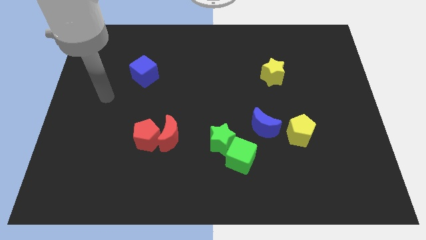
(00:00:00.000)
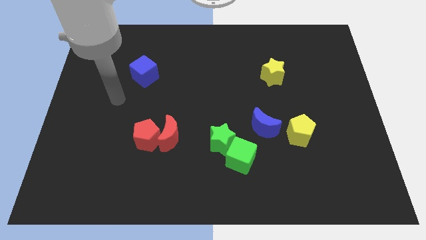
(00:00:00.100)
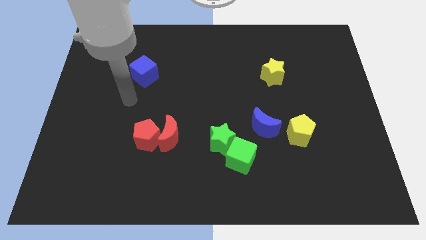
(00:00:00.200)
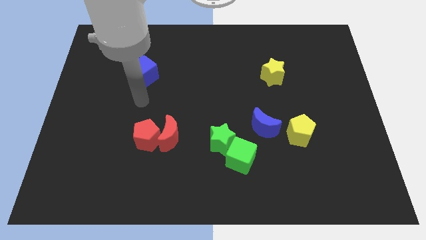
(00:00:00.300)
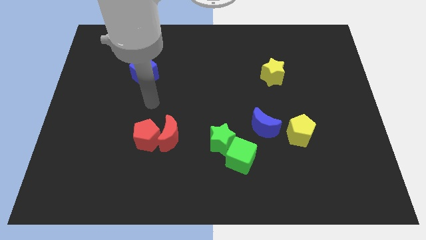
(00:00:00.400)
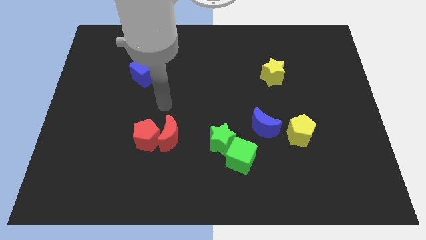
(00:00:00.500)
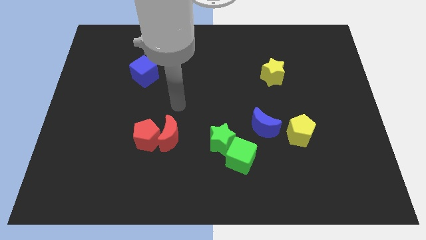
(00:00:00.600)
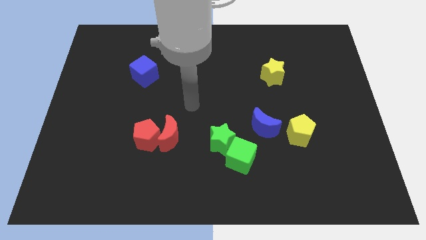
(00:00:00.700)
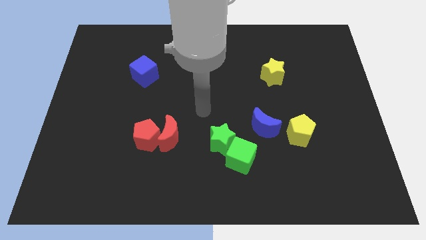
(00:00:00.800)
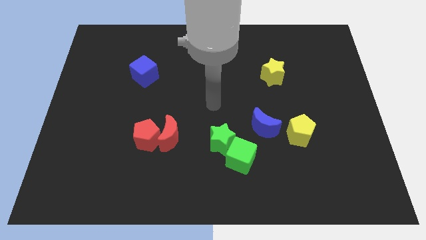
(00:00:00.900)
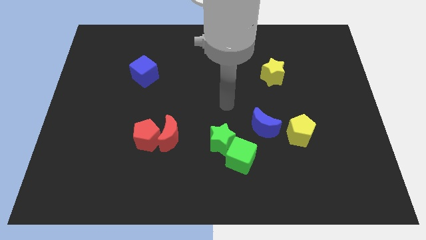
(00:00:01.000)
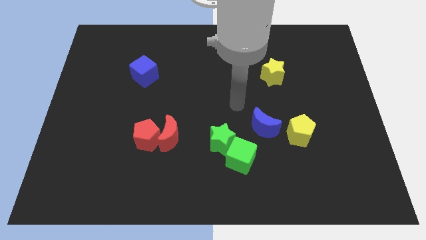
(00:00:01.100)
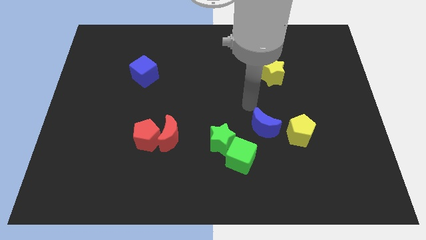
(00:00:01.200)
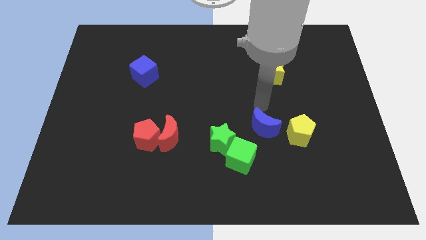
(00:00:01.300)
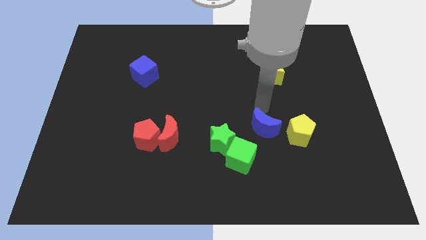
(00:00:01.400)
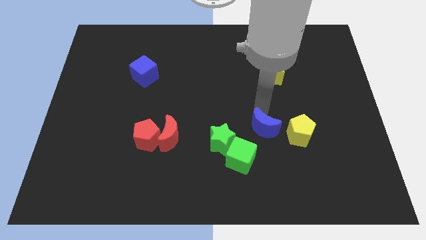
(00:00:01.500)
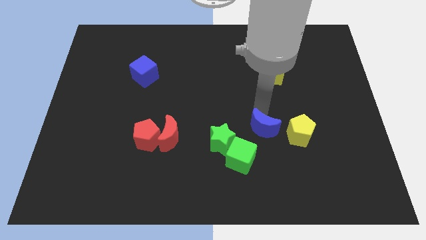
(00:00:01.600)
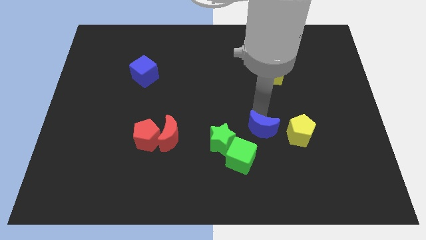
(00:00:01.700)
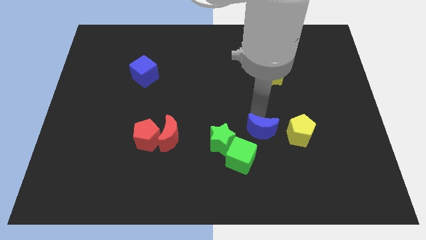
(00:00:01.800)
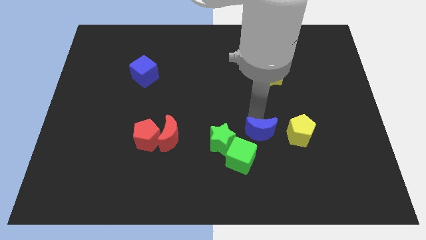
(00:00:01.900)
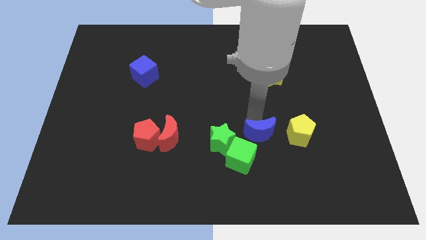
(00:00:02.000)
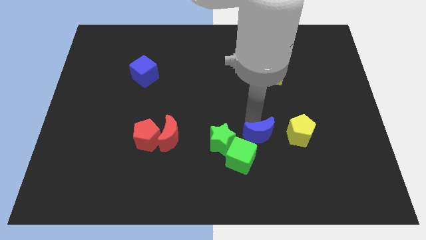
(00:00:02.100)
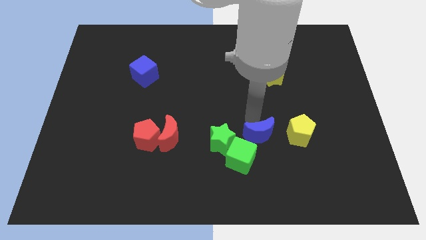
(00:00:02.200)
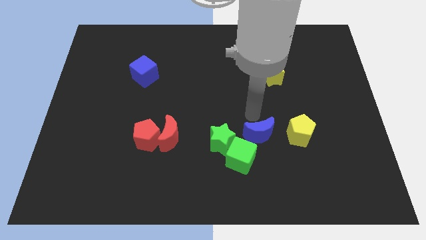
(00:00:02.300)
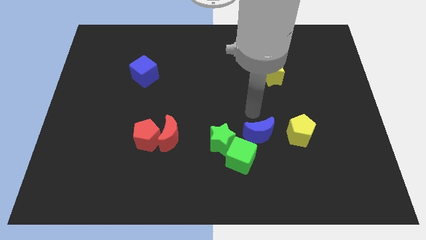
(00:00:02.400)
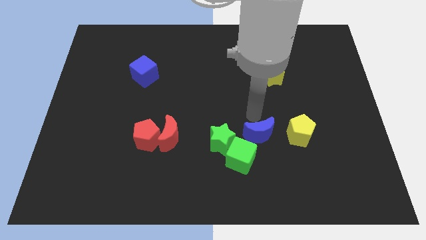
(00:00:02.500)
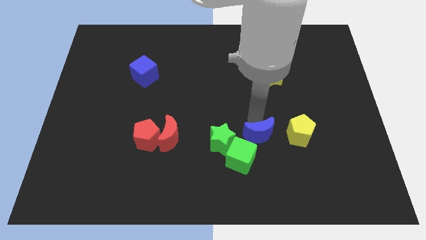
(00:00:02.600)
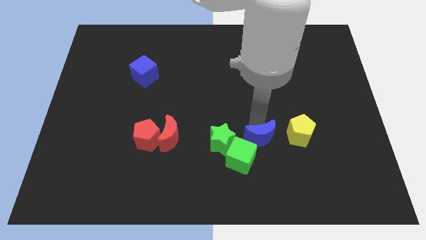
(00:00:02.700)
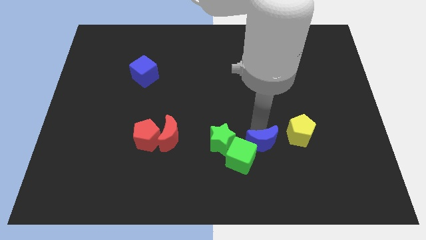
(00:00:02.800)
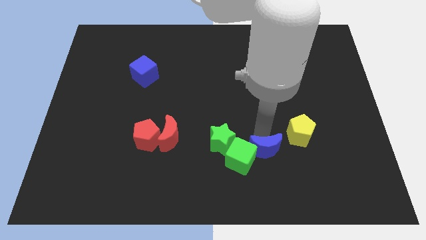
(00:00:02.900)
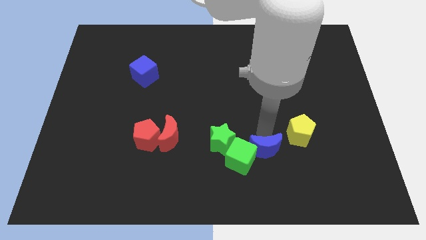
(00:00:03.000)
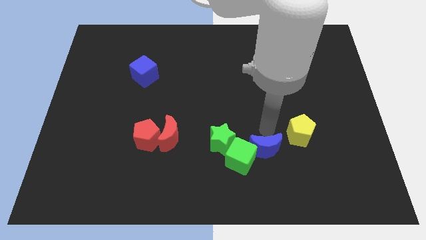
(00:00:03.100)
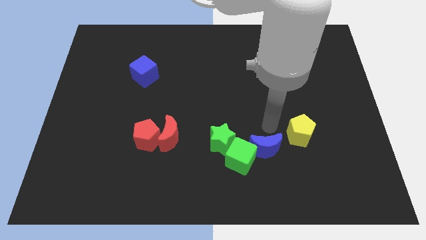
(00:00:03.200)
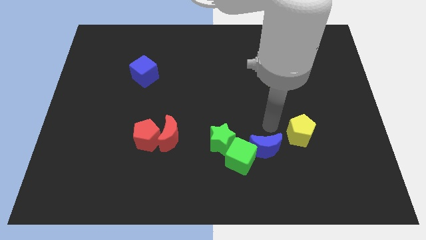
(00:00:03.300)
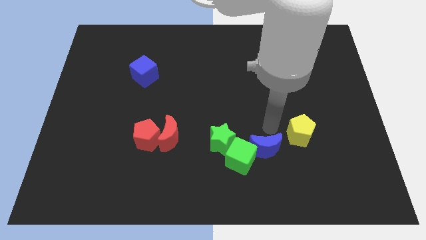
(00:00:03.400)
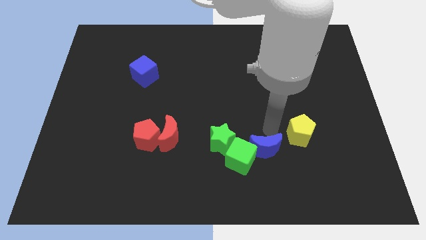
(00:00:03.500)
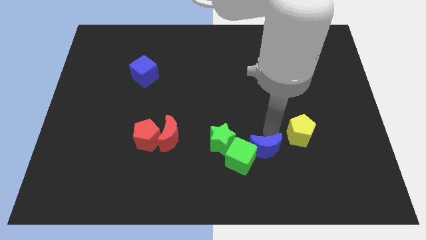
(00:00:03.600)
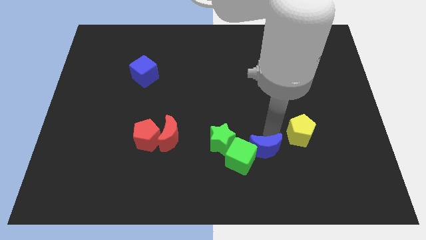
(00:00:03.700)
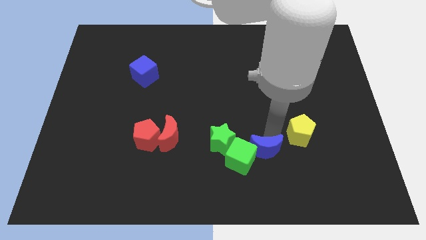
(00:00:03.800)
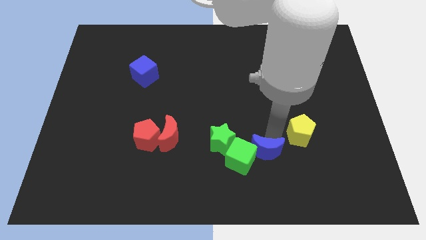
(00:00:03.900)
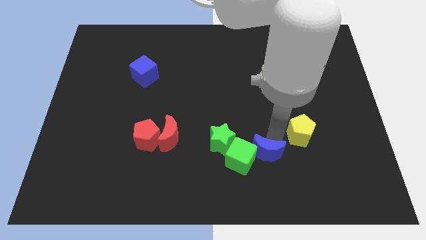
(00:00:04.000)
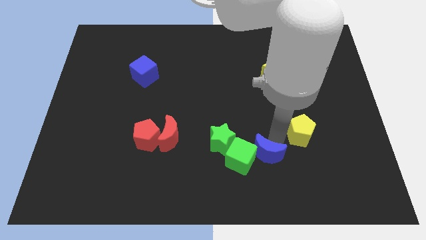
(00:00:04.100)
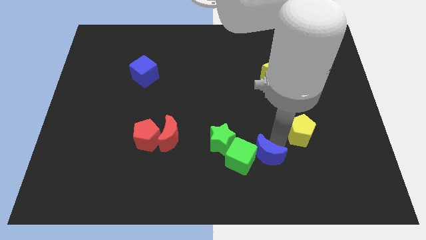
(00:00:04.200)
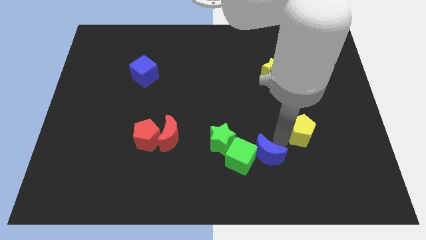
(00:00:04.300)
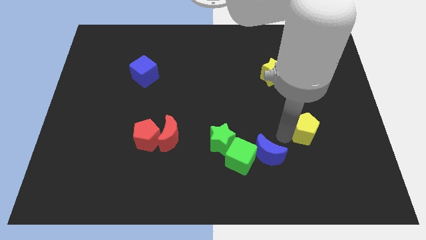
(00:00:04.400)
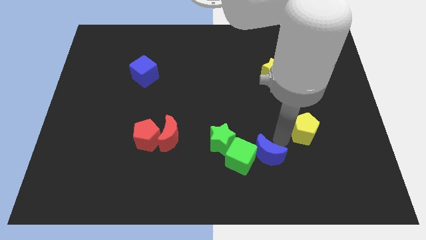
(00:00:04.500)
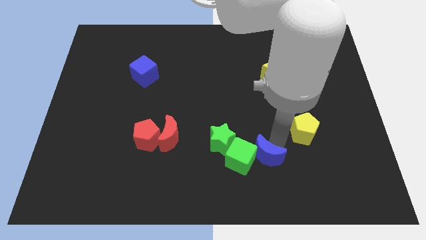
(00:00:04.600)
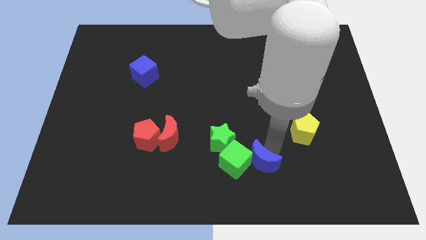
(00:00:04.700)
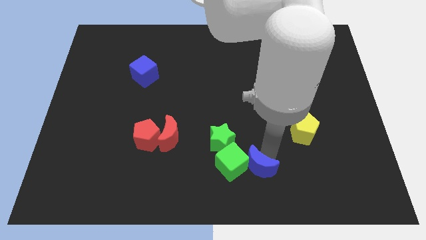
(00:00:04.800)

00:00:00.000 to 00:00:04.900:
slide the blue moon a little bit down and left

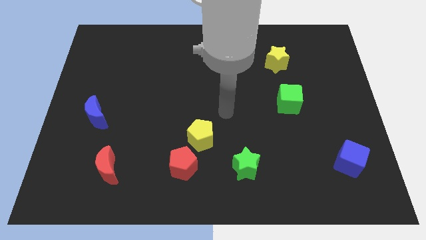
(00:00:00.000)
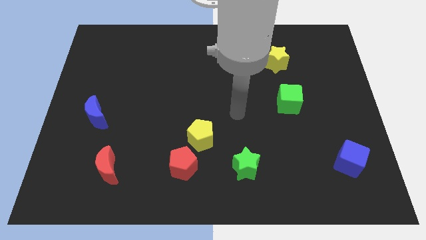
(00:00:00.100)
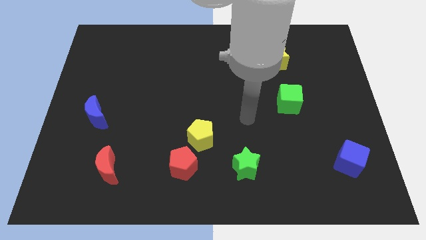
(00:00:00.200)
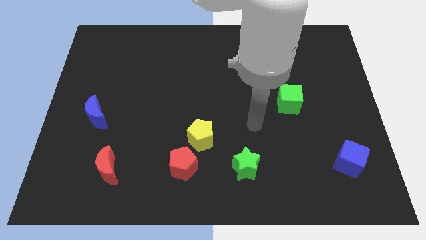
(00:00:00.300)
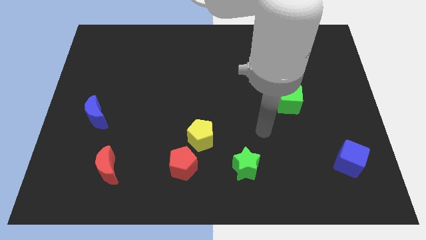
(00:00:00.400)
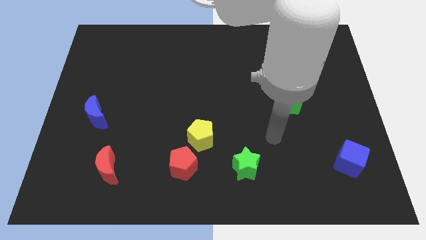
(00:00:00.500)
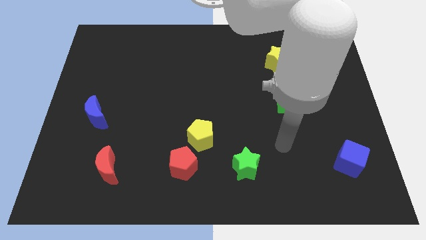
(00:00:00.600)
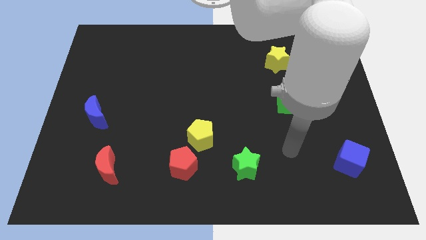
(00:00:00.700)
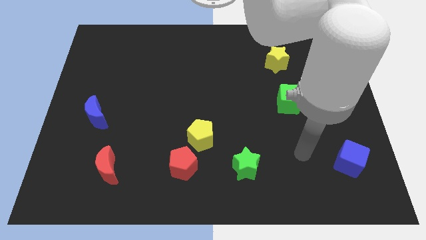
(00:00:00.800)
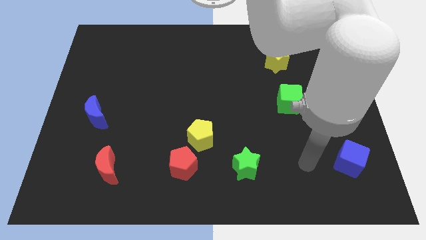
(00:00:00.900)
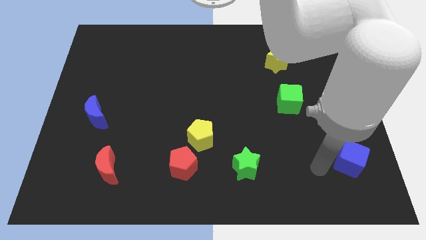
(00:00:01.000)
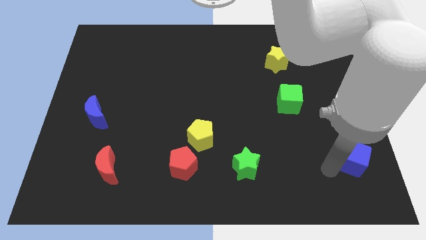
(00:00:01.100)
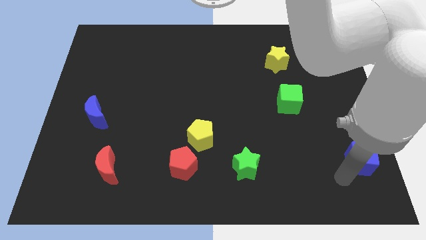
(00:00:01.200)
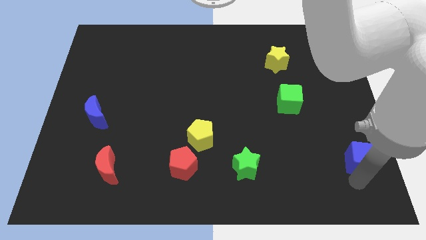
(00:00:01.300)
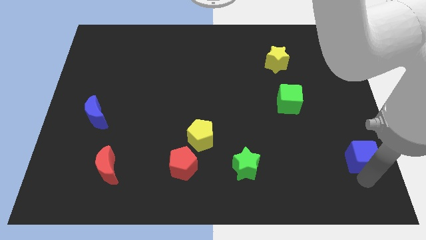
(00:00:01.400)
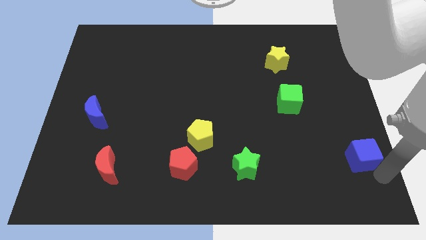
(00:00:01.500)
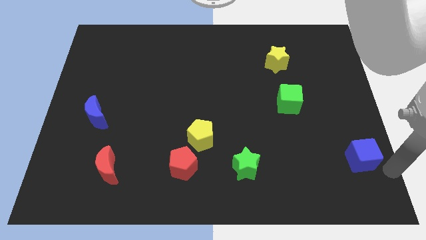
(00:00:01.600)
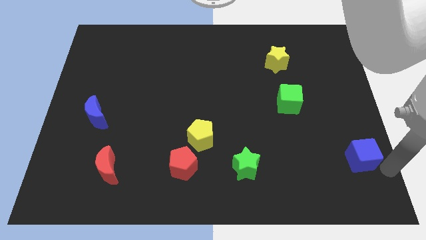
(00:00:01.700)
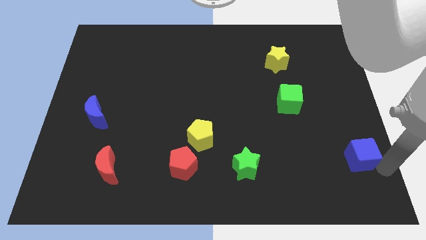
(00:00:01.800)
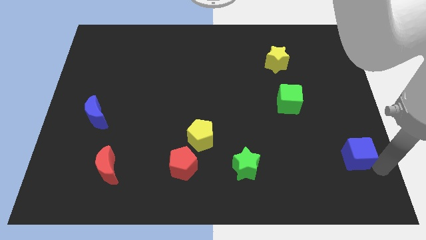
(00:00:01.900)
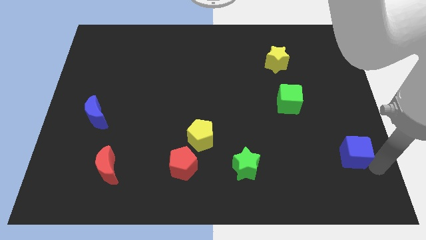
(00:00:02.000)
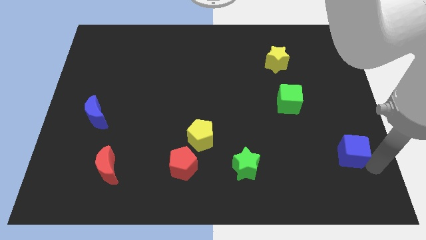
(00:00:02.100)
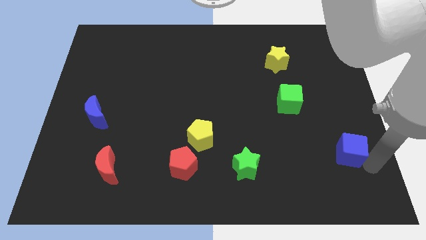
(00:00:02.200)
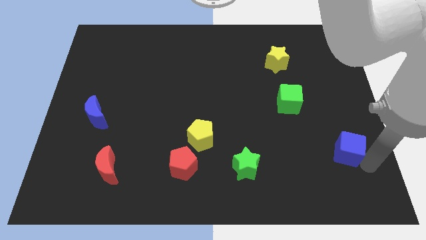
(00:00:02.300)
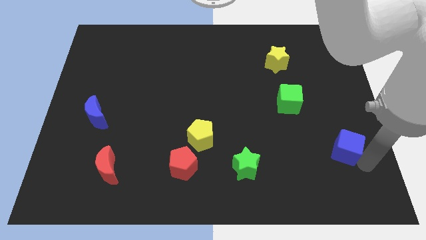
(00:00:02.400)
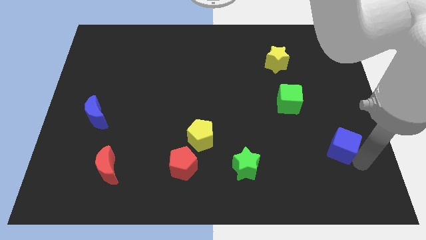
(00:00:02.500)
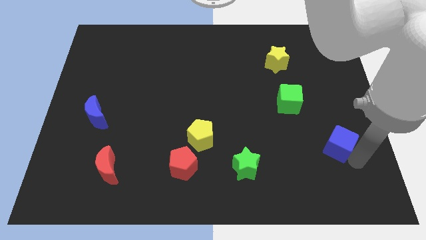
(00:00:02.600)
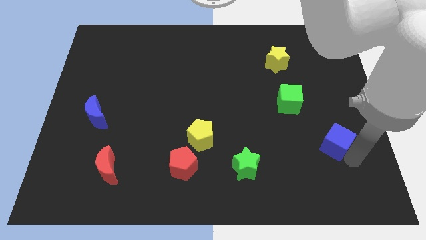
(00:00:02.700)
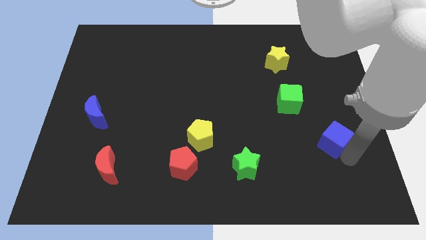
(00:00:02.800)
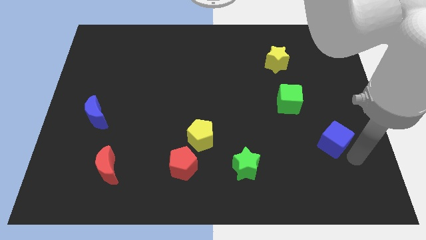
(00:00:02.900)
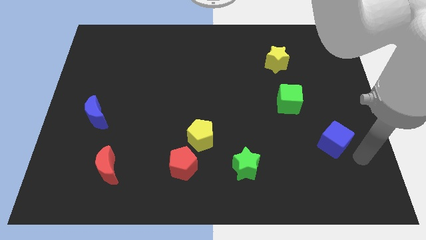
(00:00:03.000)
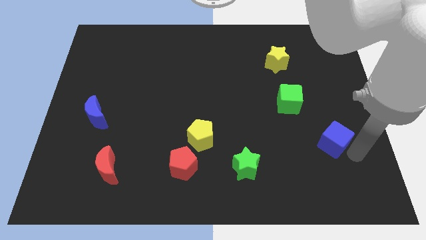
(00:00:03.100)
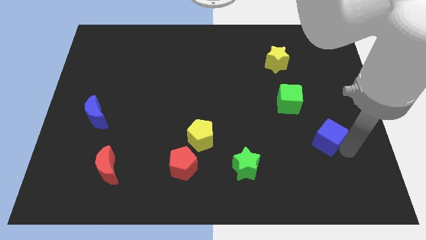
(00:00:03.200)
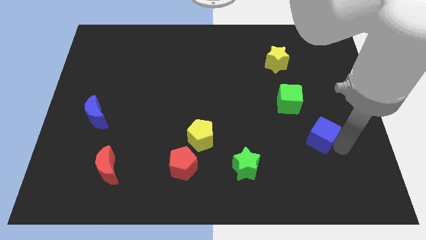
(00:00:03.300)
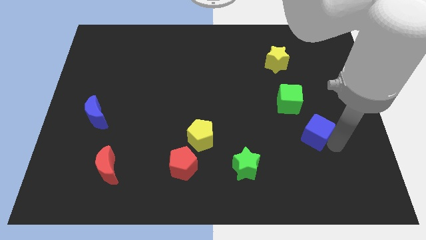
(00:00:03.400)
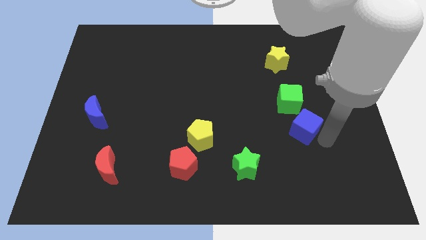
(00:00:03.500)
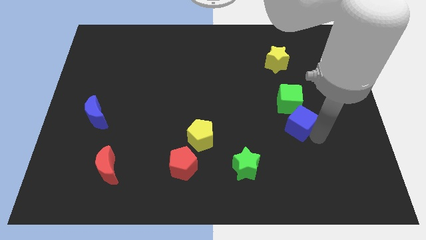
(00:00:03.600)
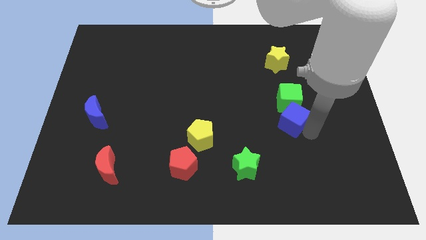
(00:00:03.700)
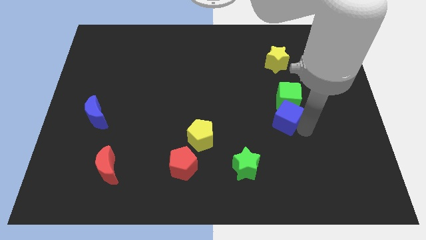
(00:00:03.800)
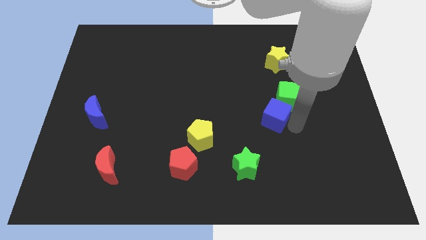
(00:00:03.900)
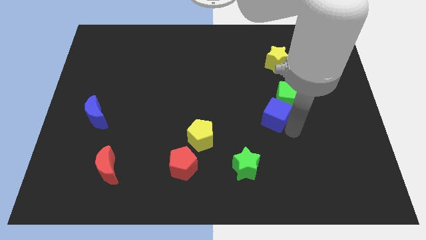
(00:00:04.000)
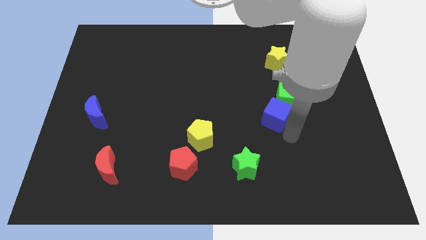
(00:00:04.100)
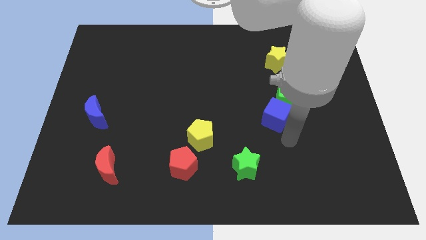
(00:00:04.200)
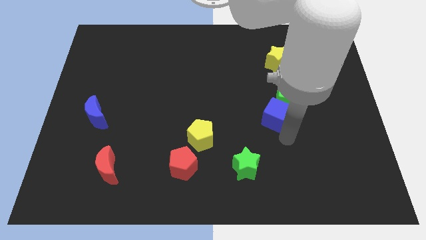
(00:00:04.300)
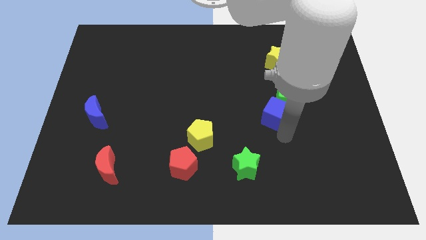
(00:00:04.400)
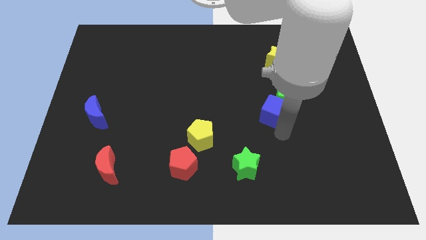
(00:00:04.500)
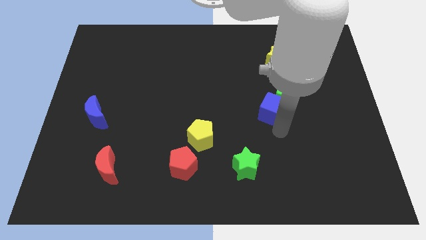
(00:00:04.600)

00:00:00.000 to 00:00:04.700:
slide the blue cube up and then left
